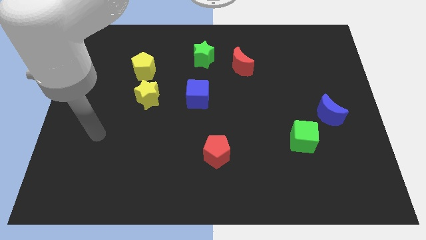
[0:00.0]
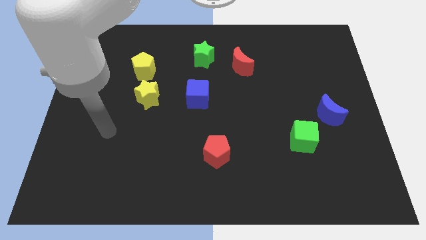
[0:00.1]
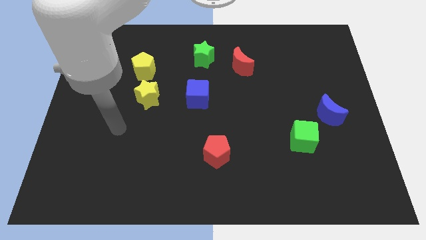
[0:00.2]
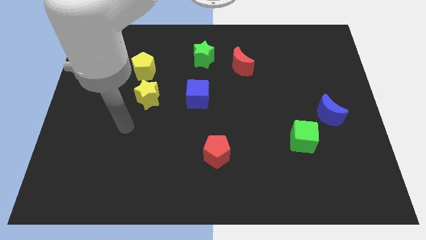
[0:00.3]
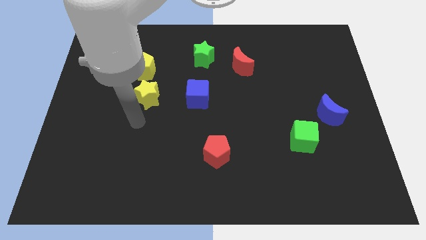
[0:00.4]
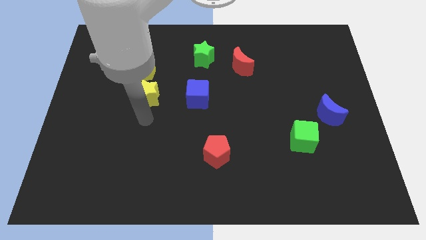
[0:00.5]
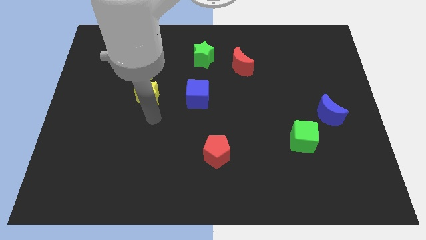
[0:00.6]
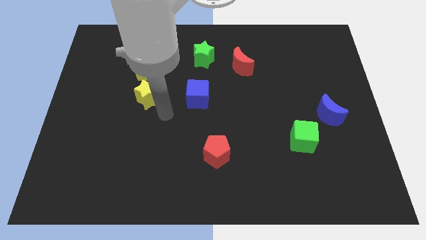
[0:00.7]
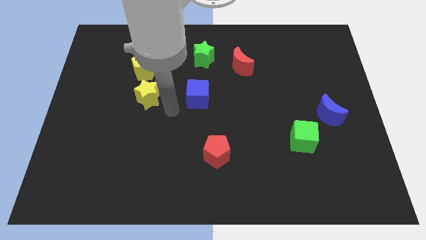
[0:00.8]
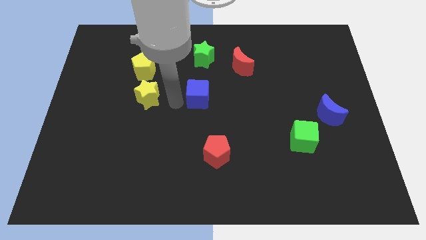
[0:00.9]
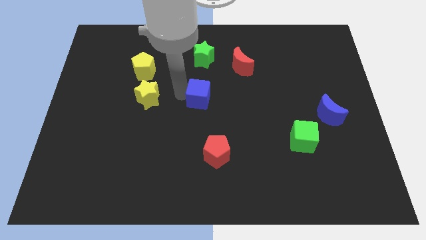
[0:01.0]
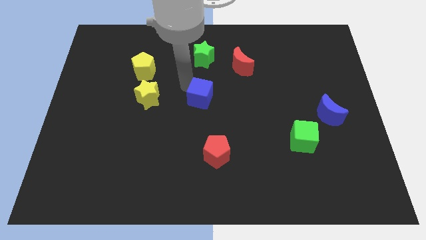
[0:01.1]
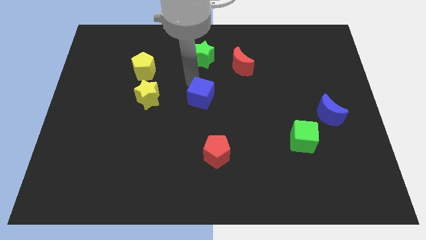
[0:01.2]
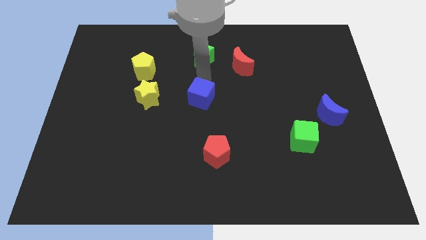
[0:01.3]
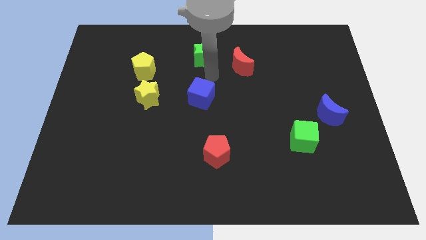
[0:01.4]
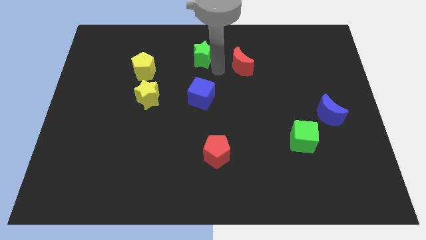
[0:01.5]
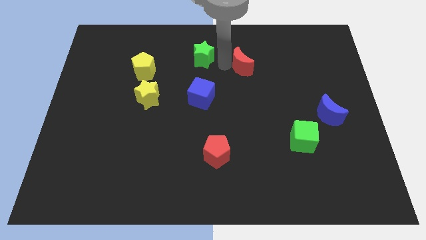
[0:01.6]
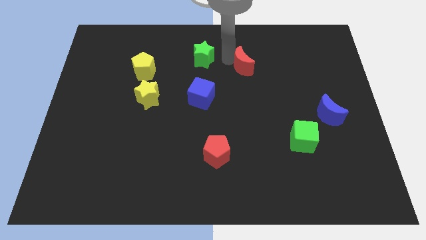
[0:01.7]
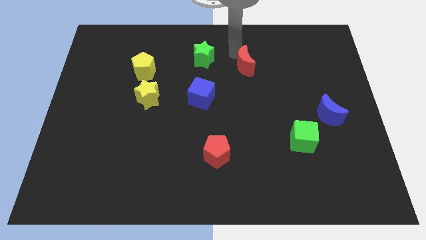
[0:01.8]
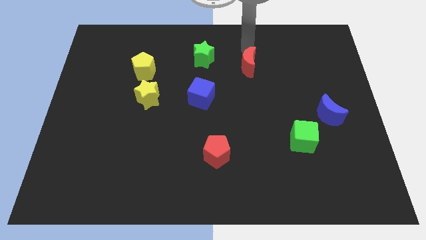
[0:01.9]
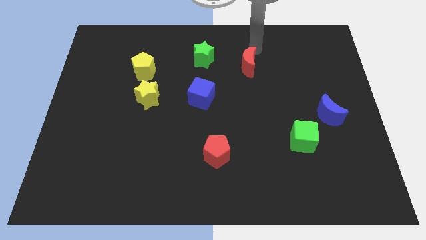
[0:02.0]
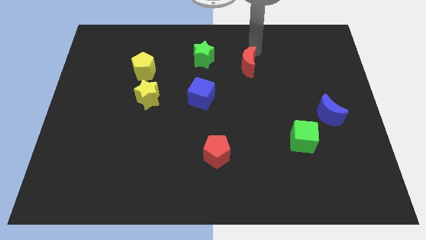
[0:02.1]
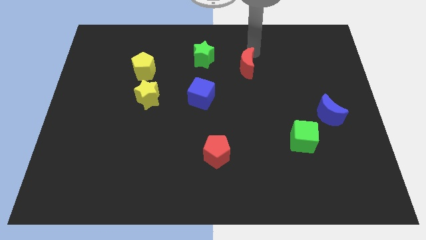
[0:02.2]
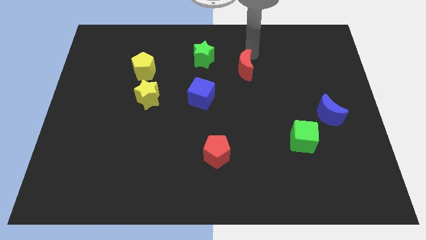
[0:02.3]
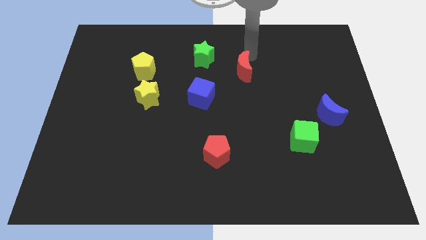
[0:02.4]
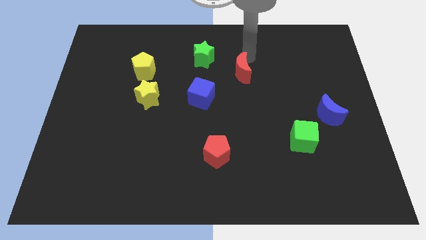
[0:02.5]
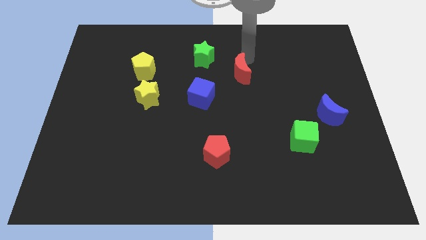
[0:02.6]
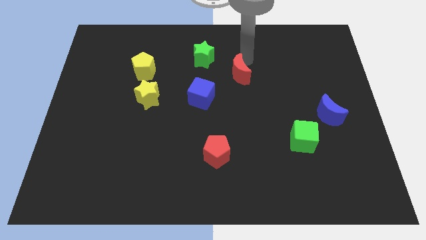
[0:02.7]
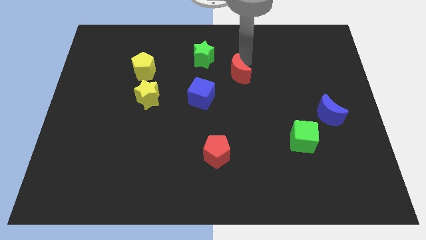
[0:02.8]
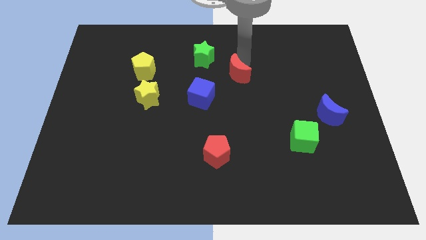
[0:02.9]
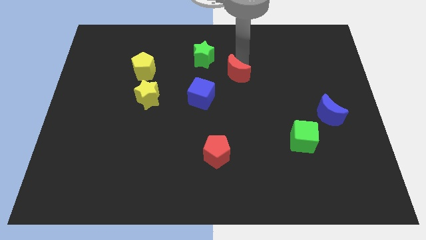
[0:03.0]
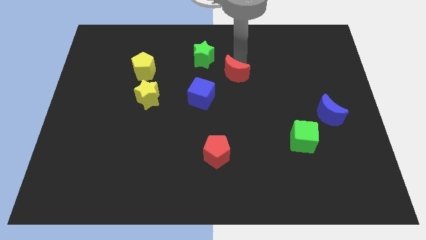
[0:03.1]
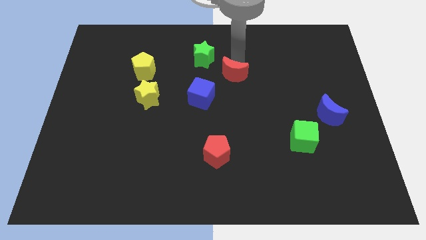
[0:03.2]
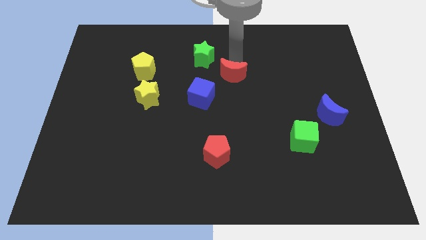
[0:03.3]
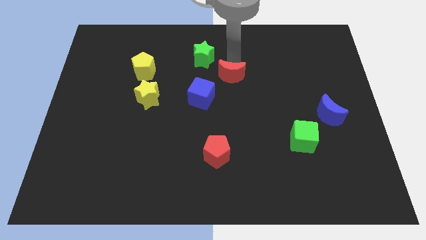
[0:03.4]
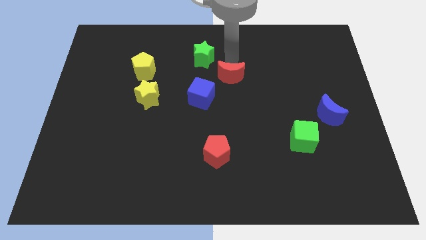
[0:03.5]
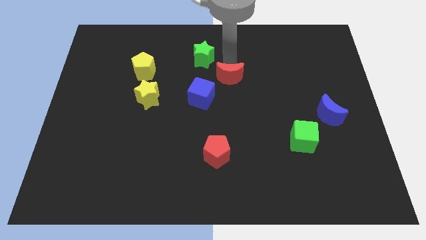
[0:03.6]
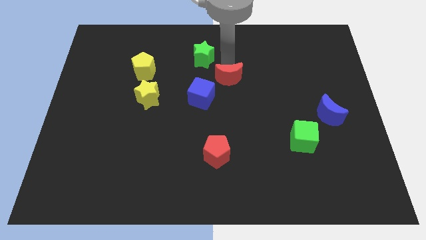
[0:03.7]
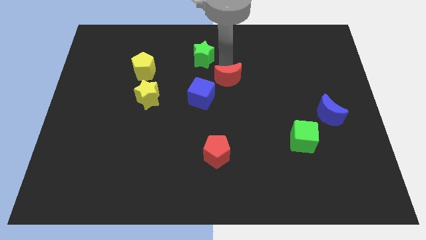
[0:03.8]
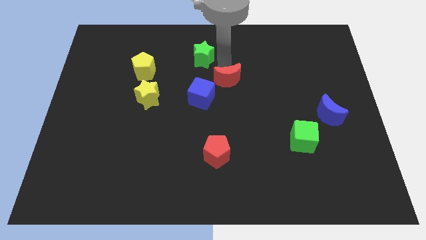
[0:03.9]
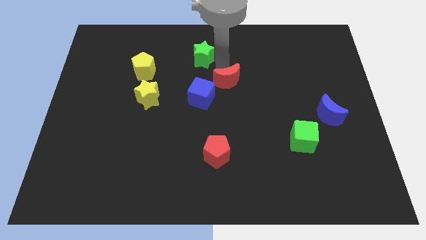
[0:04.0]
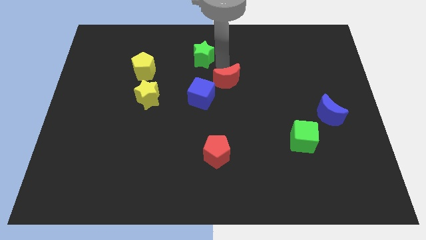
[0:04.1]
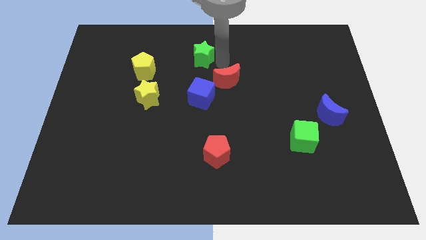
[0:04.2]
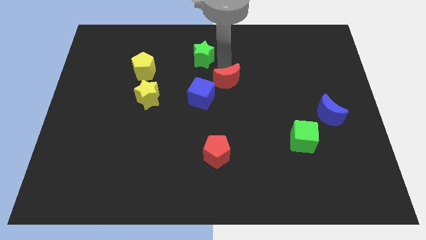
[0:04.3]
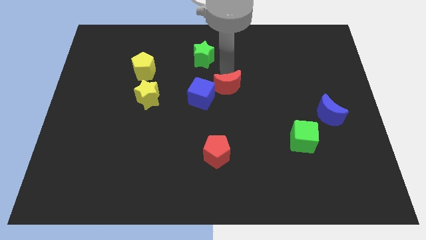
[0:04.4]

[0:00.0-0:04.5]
slightly slide the red moon downwards

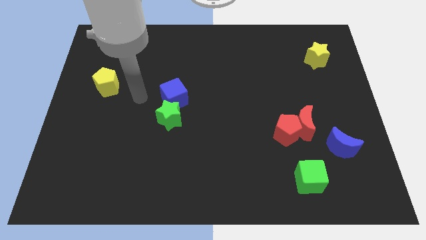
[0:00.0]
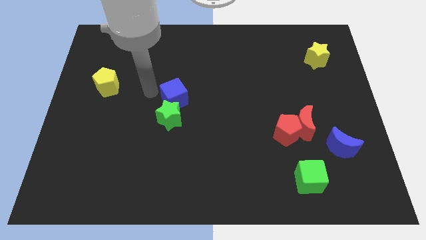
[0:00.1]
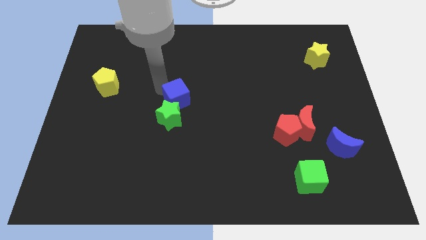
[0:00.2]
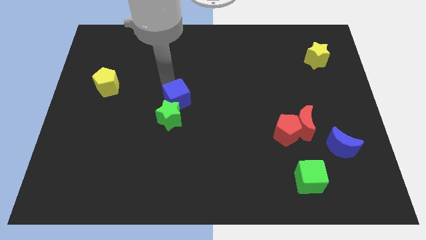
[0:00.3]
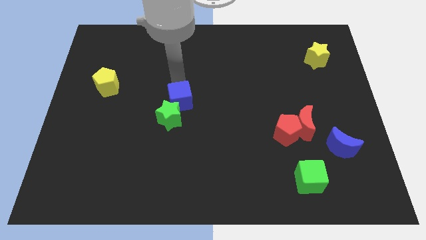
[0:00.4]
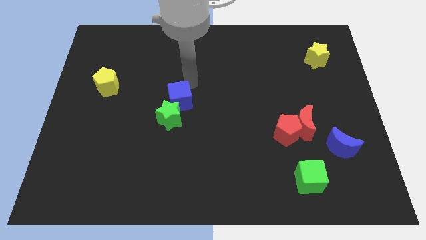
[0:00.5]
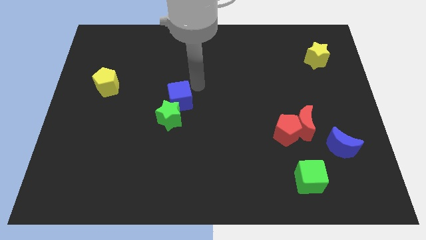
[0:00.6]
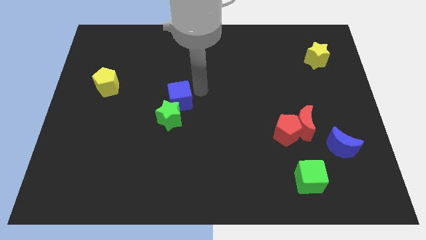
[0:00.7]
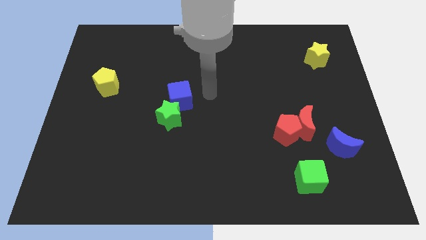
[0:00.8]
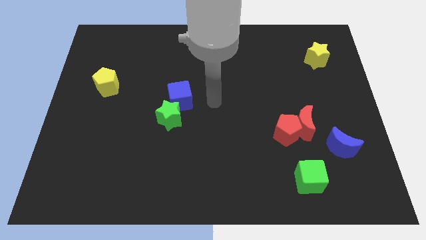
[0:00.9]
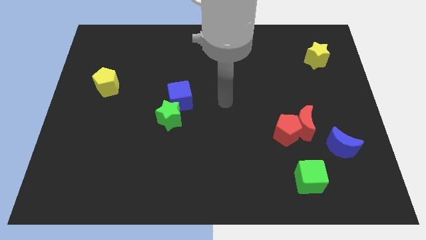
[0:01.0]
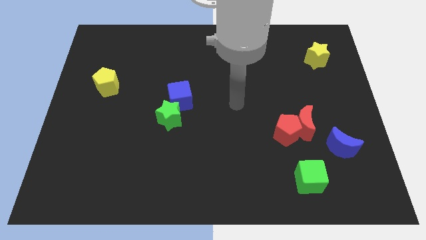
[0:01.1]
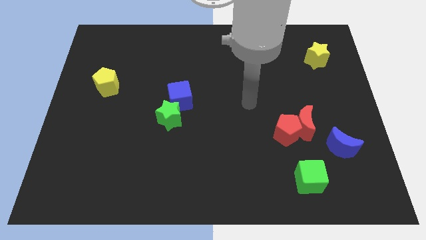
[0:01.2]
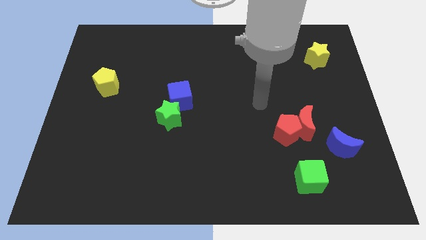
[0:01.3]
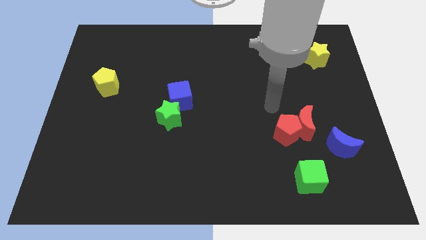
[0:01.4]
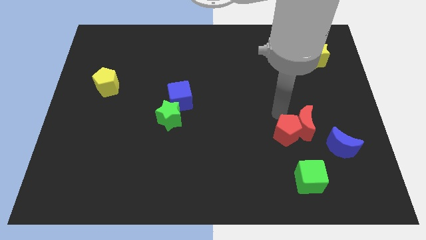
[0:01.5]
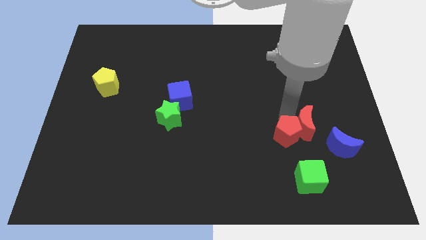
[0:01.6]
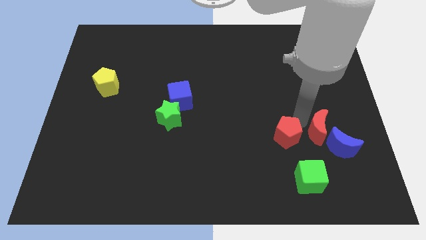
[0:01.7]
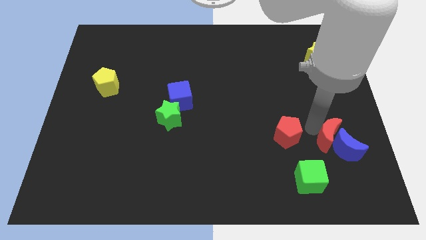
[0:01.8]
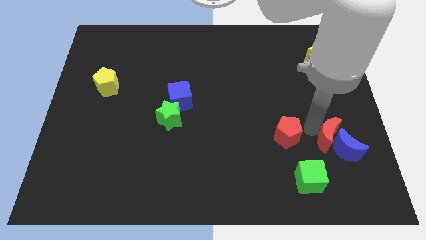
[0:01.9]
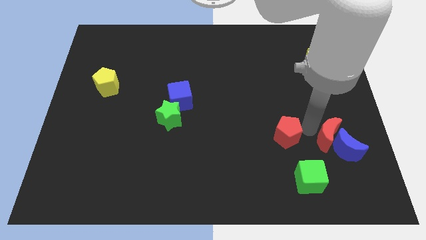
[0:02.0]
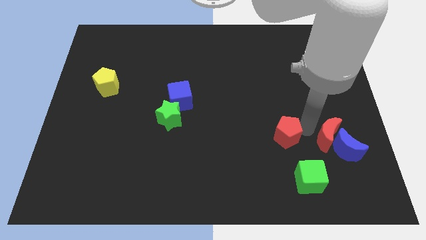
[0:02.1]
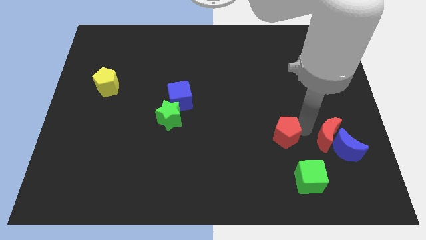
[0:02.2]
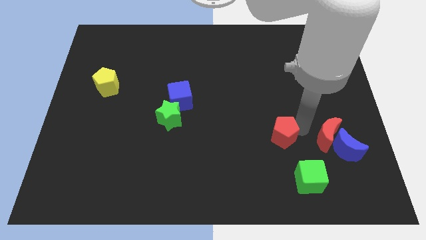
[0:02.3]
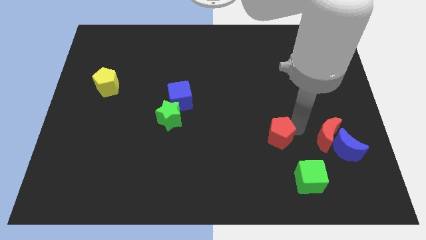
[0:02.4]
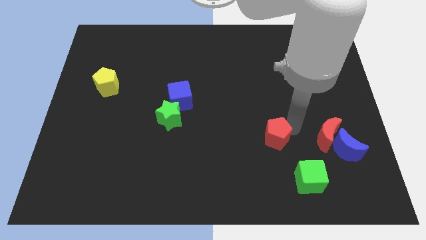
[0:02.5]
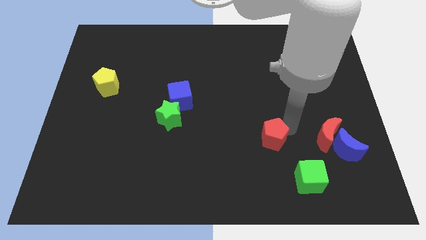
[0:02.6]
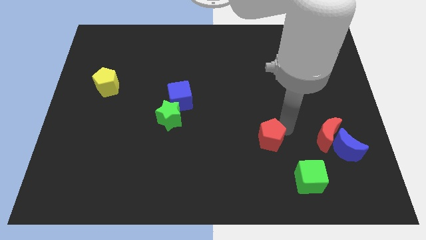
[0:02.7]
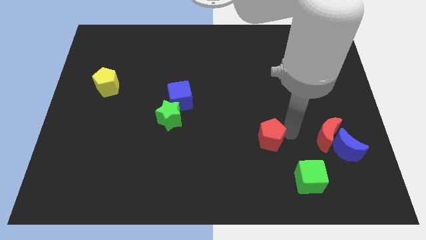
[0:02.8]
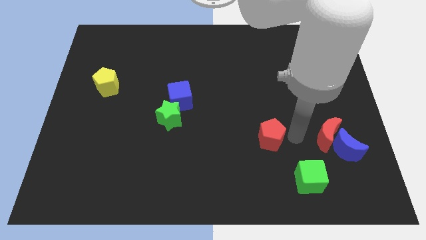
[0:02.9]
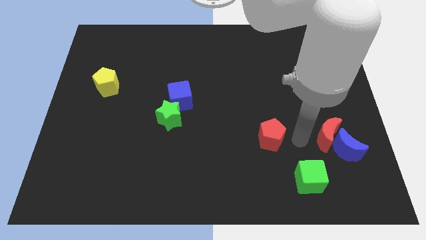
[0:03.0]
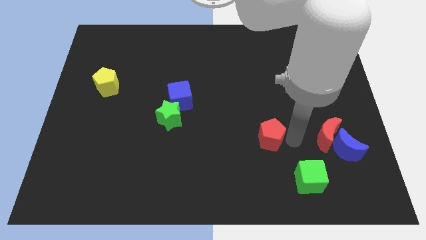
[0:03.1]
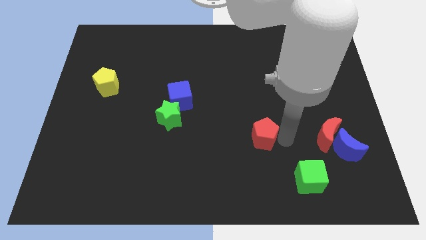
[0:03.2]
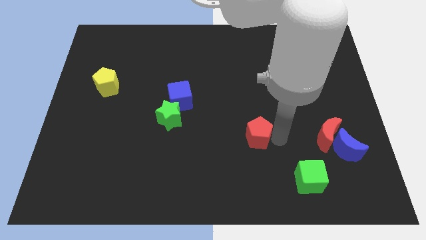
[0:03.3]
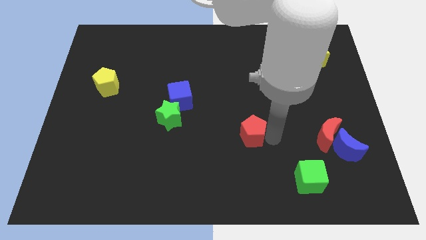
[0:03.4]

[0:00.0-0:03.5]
slide the red pentagon a bit to the left

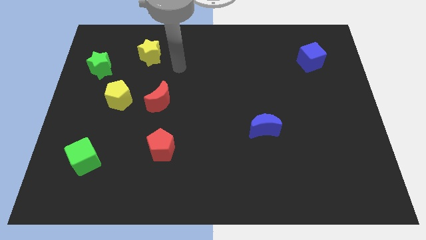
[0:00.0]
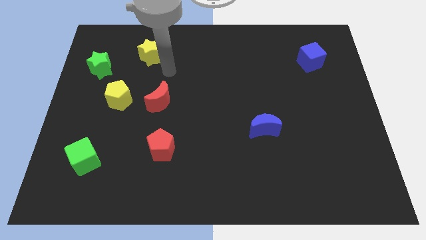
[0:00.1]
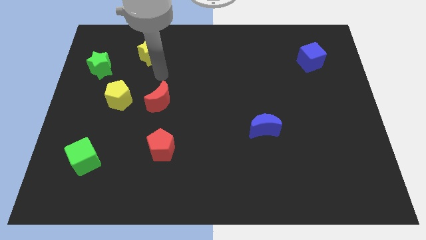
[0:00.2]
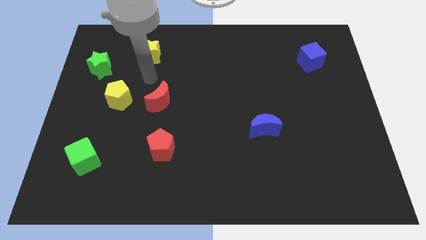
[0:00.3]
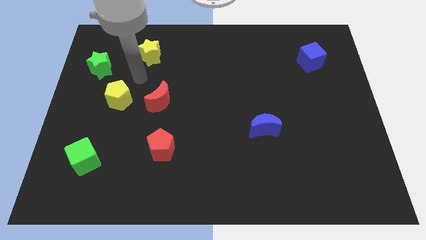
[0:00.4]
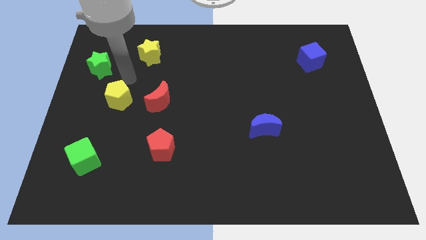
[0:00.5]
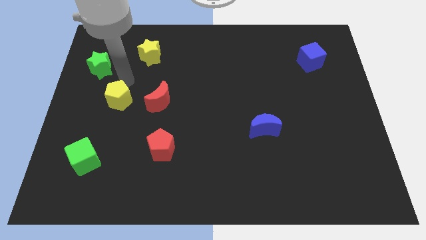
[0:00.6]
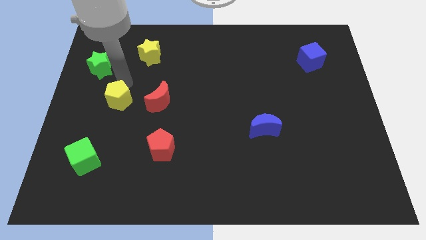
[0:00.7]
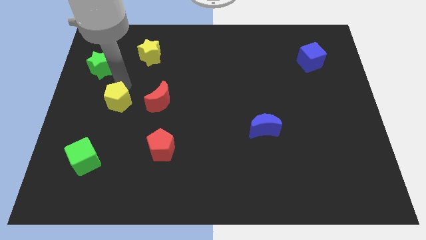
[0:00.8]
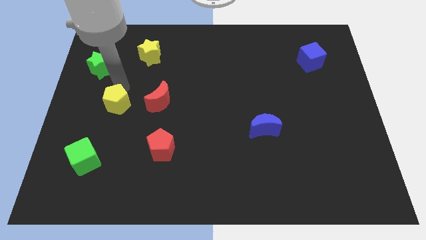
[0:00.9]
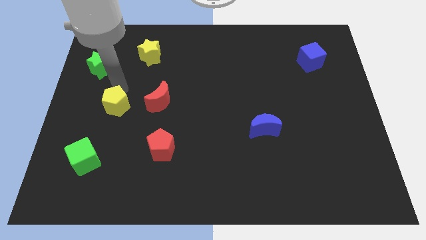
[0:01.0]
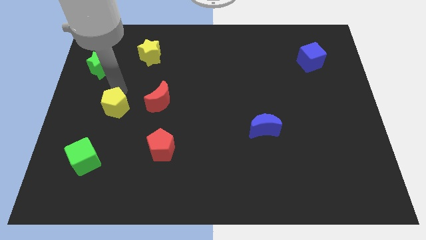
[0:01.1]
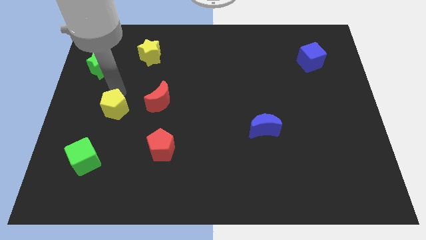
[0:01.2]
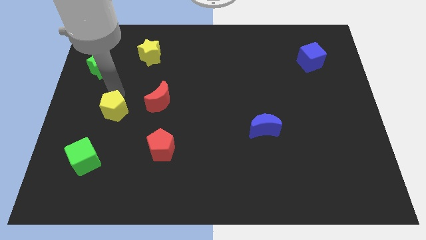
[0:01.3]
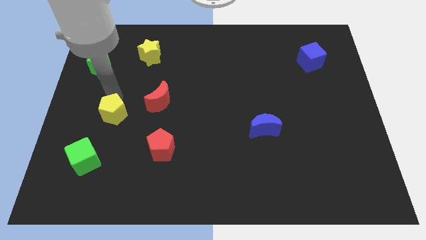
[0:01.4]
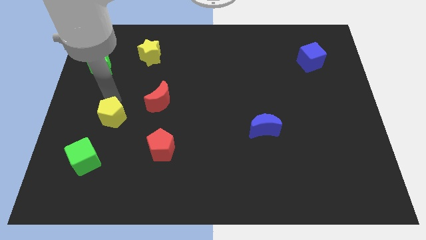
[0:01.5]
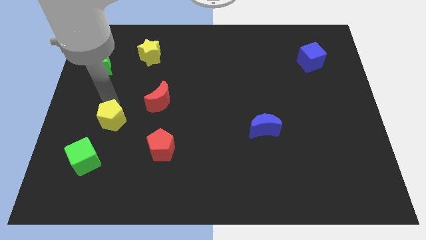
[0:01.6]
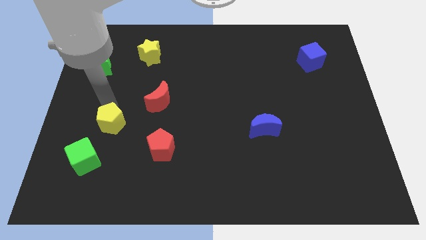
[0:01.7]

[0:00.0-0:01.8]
slightly move the yellow pentagon down
